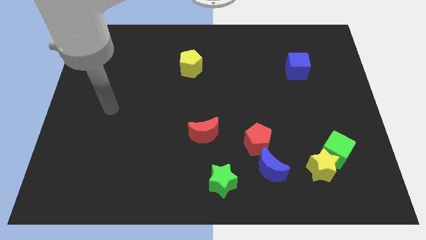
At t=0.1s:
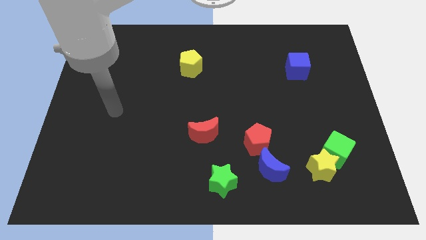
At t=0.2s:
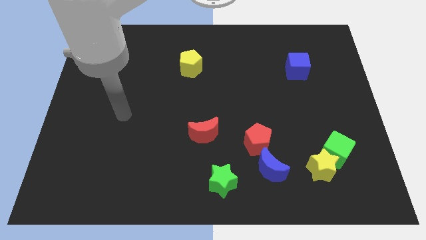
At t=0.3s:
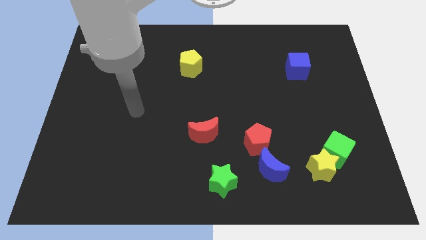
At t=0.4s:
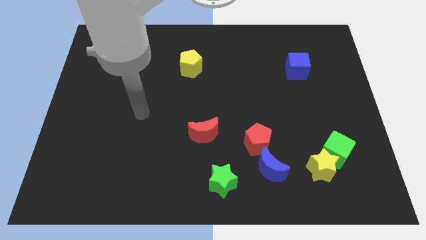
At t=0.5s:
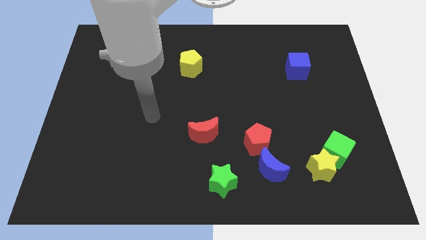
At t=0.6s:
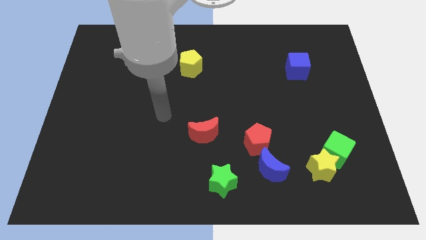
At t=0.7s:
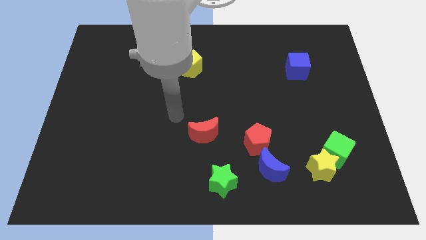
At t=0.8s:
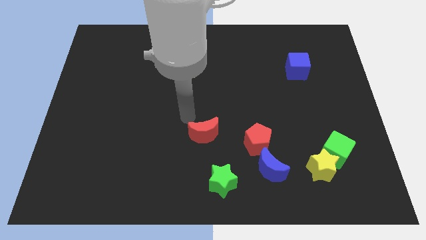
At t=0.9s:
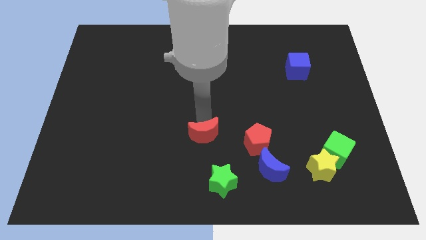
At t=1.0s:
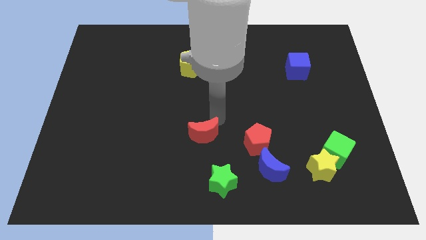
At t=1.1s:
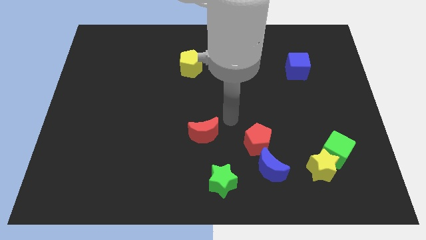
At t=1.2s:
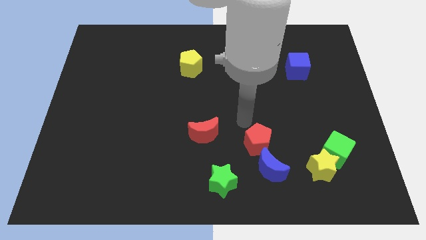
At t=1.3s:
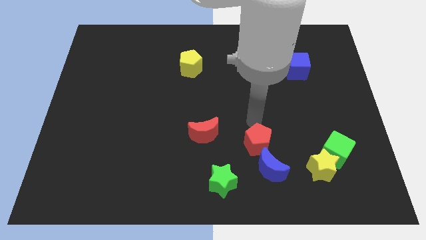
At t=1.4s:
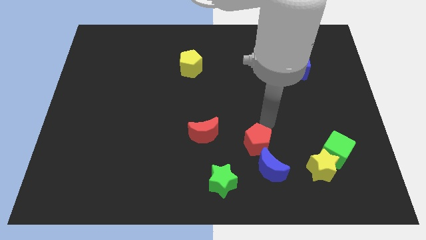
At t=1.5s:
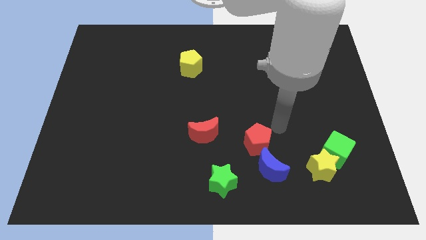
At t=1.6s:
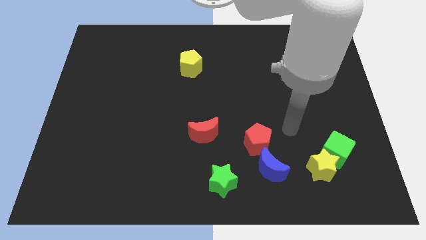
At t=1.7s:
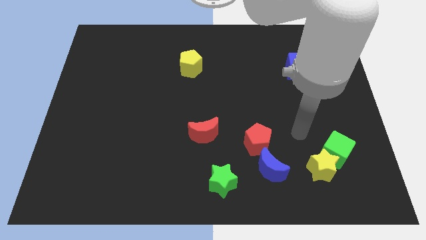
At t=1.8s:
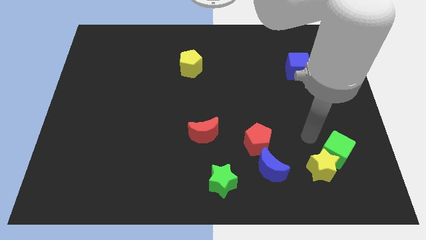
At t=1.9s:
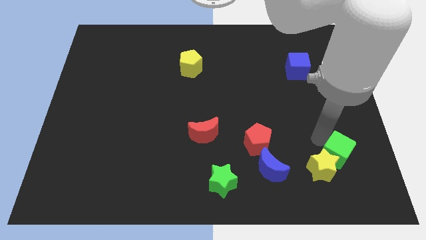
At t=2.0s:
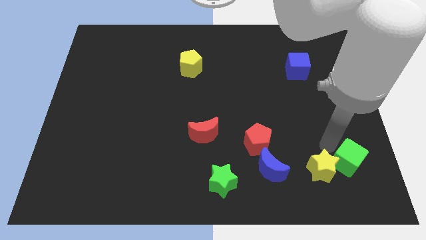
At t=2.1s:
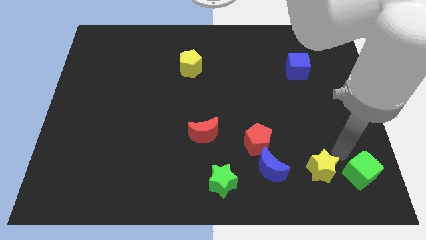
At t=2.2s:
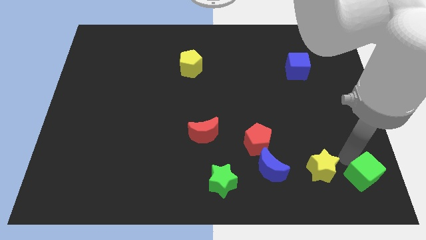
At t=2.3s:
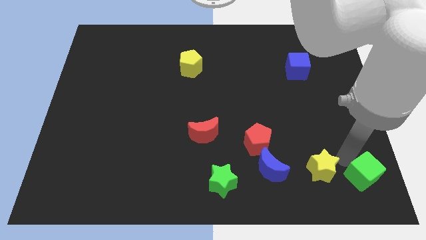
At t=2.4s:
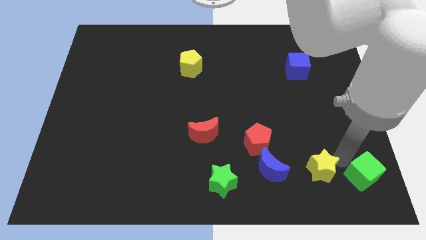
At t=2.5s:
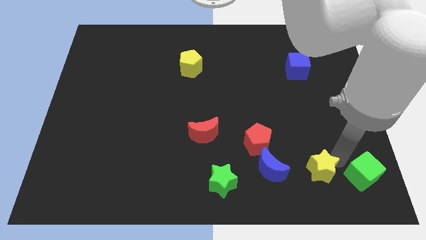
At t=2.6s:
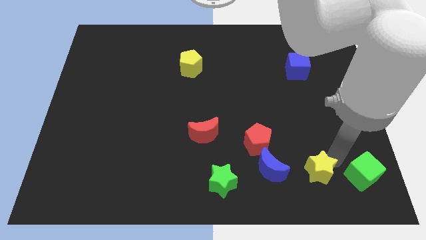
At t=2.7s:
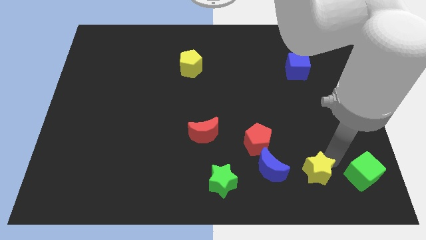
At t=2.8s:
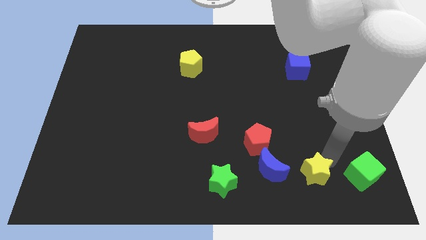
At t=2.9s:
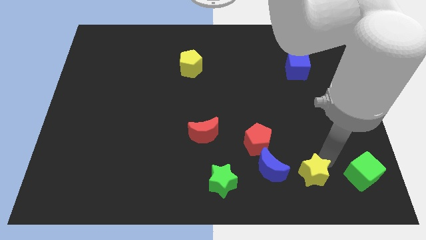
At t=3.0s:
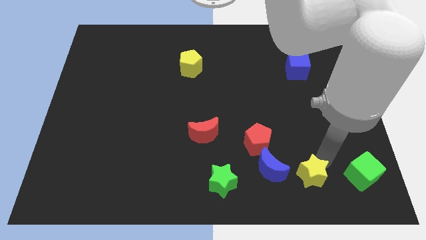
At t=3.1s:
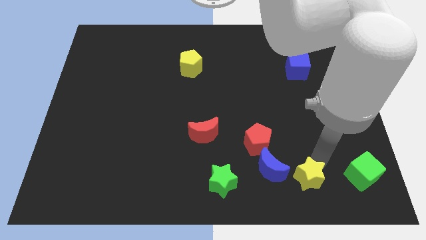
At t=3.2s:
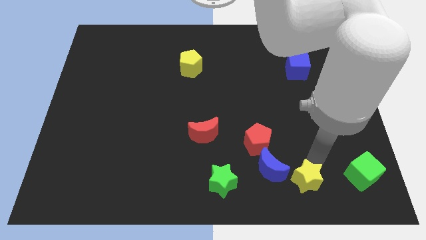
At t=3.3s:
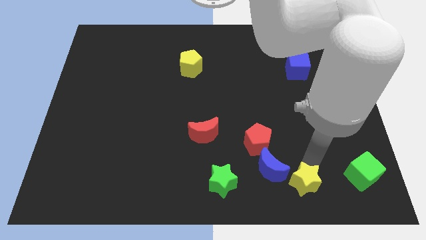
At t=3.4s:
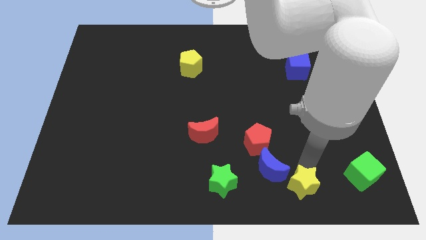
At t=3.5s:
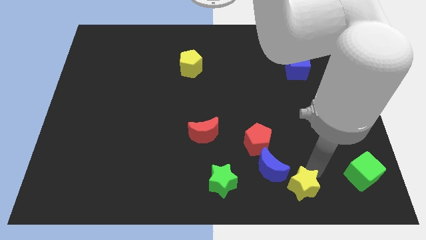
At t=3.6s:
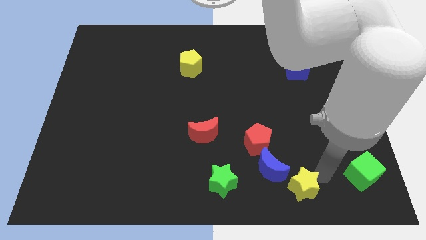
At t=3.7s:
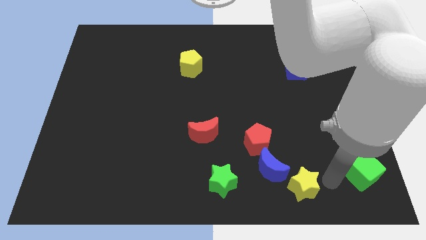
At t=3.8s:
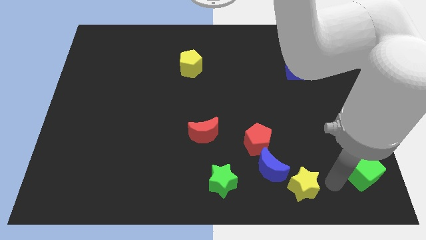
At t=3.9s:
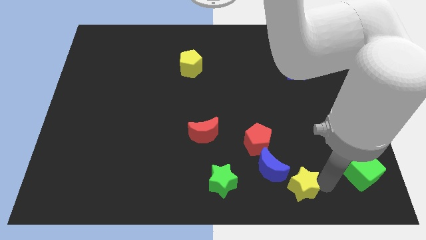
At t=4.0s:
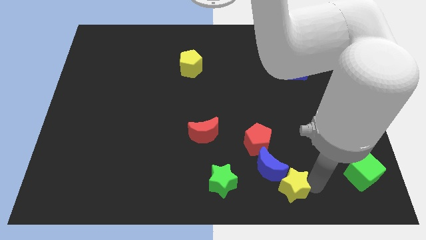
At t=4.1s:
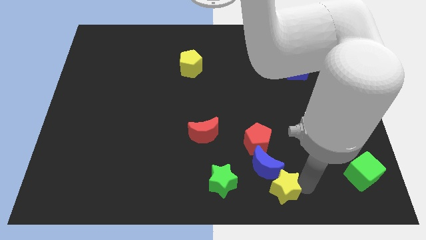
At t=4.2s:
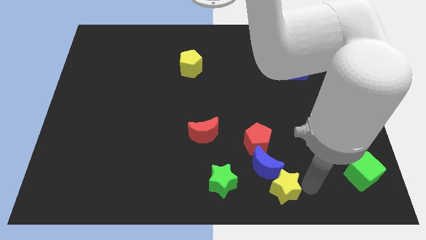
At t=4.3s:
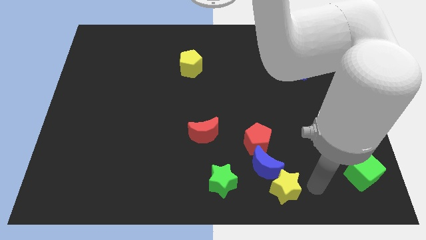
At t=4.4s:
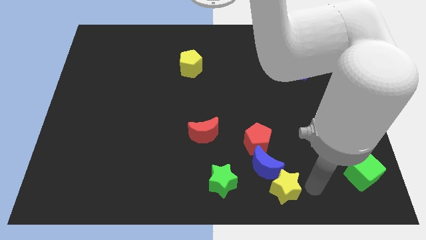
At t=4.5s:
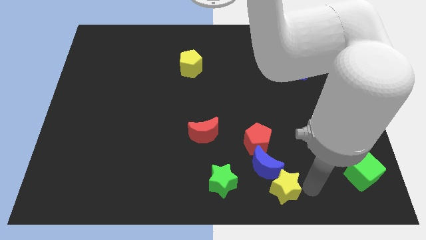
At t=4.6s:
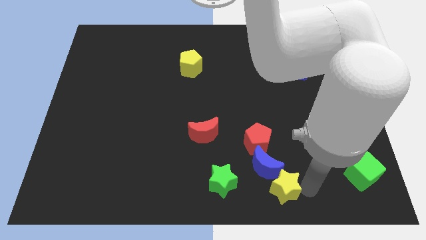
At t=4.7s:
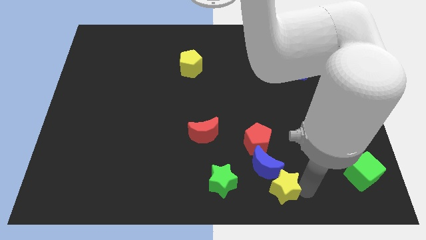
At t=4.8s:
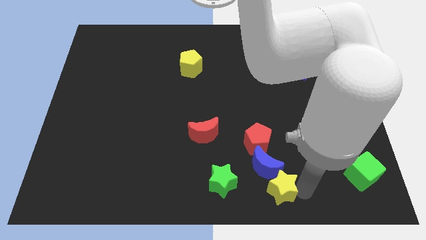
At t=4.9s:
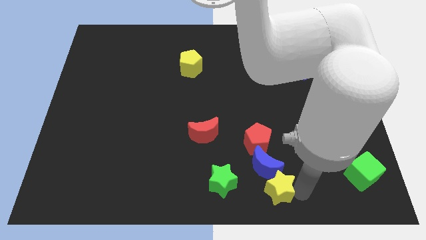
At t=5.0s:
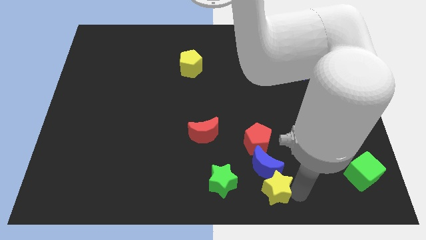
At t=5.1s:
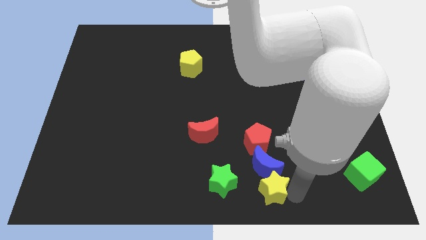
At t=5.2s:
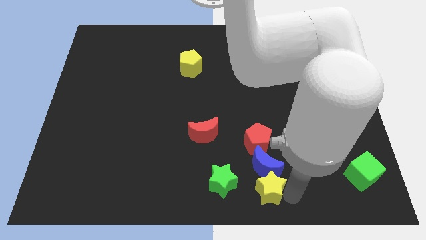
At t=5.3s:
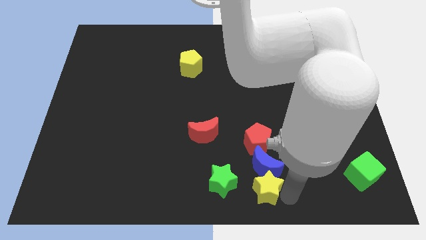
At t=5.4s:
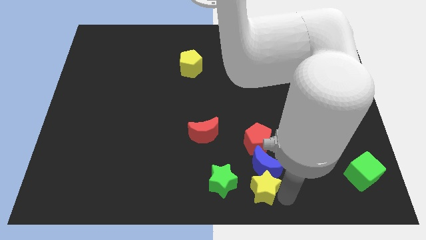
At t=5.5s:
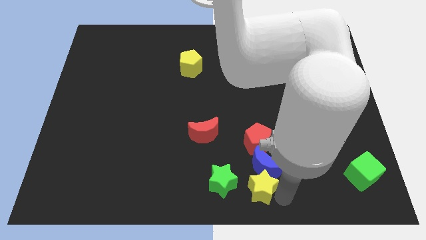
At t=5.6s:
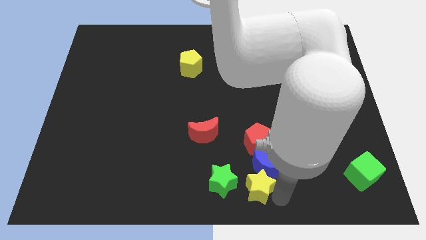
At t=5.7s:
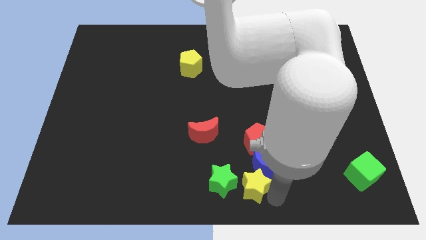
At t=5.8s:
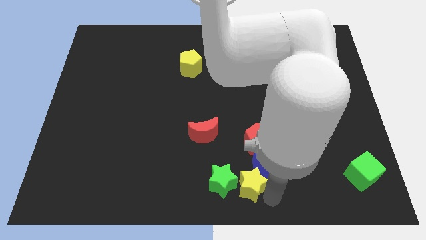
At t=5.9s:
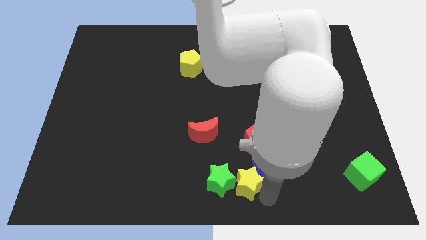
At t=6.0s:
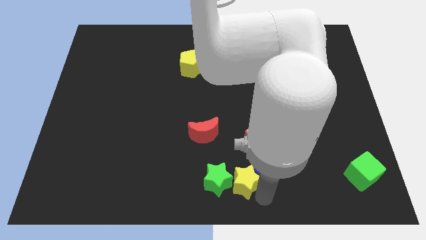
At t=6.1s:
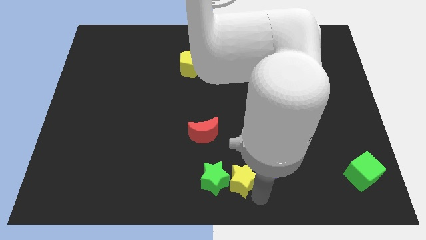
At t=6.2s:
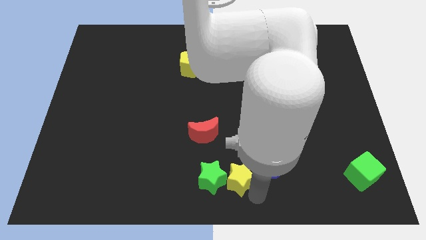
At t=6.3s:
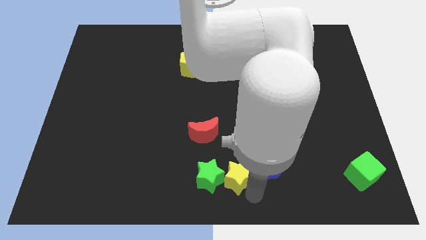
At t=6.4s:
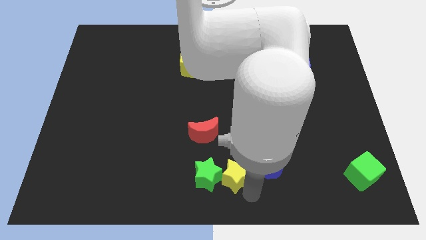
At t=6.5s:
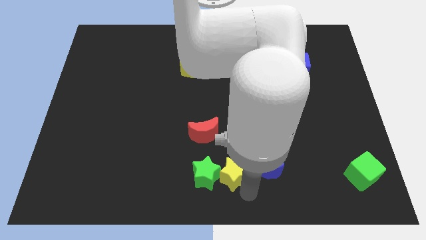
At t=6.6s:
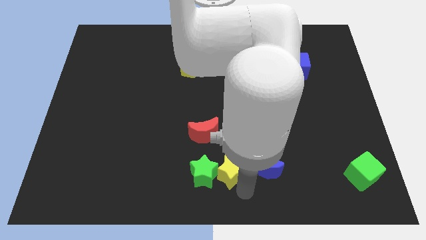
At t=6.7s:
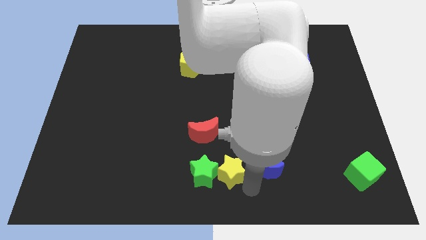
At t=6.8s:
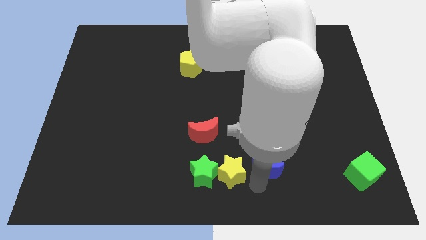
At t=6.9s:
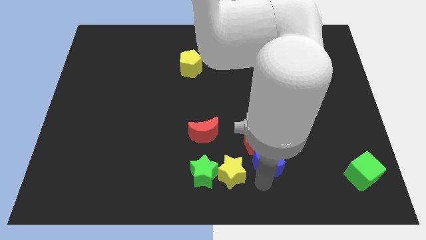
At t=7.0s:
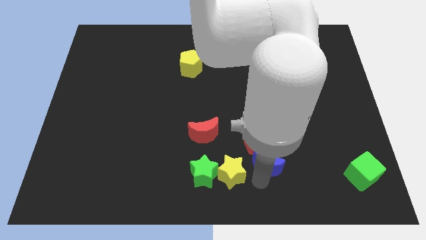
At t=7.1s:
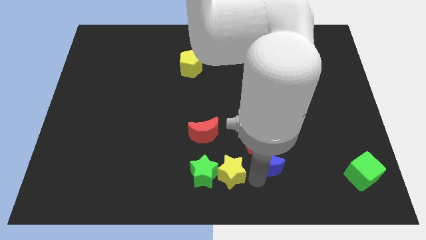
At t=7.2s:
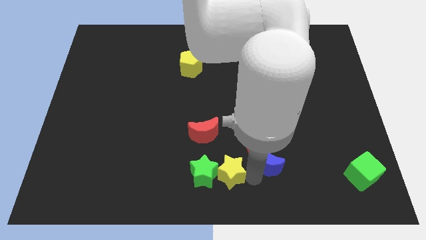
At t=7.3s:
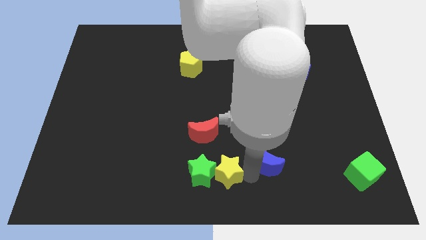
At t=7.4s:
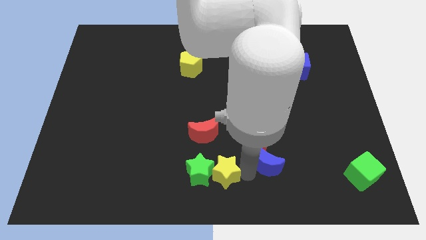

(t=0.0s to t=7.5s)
move the yellow star left

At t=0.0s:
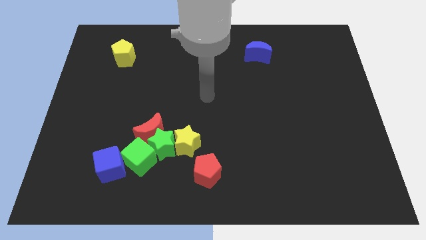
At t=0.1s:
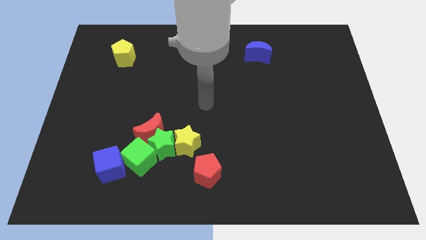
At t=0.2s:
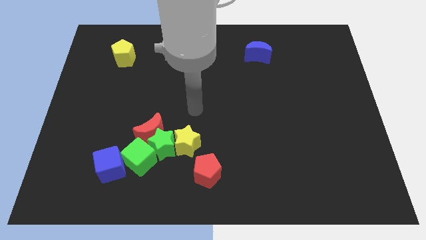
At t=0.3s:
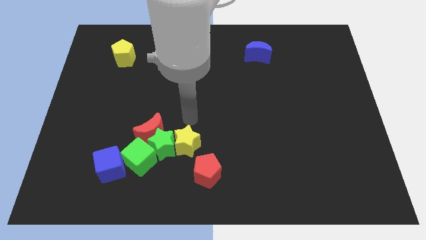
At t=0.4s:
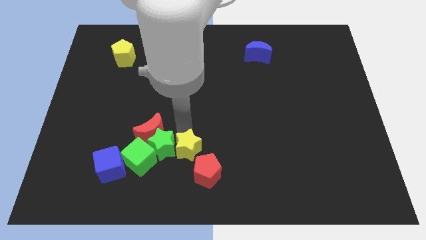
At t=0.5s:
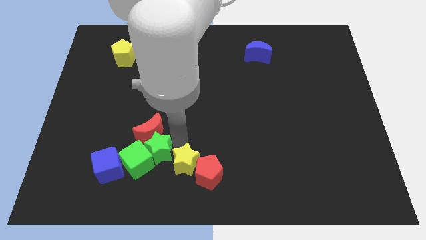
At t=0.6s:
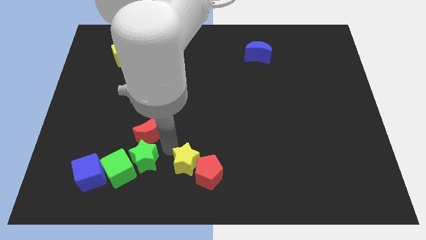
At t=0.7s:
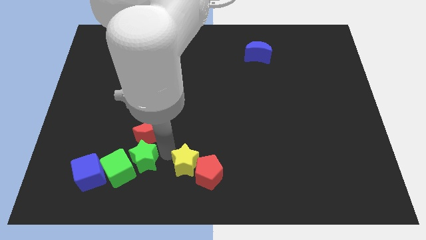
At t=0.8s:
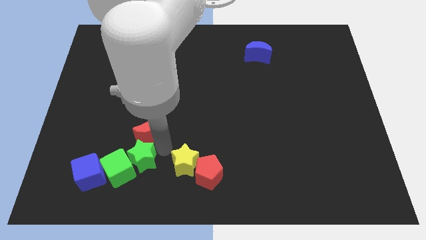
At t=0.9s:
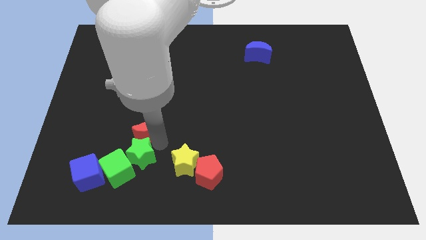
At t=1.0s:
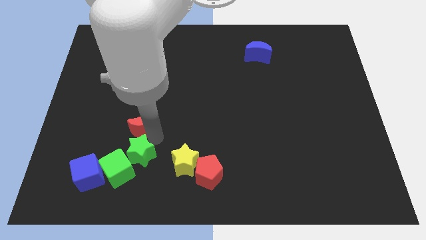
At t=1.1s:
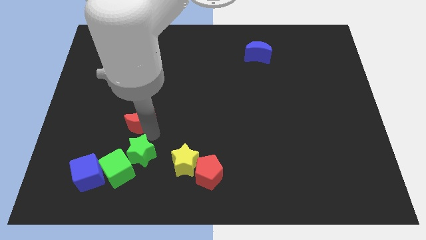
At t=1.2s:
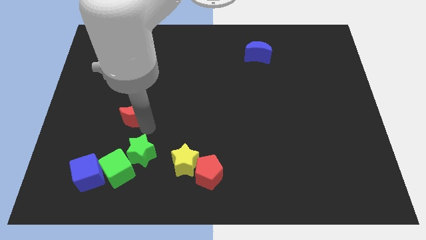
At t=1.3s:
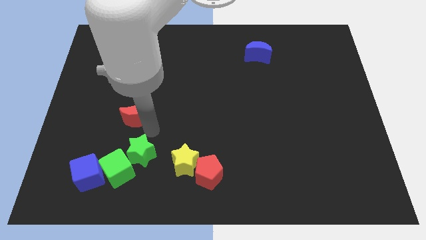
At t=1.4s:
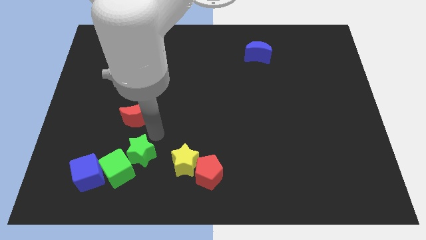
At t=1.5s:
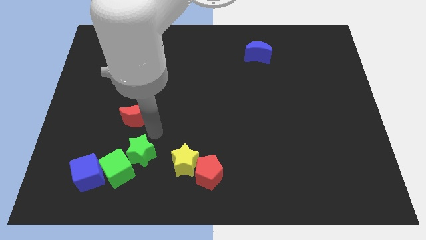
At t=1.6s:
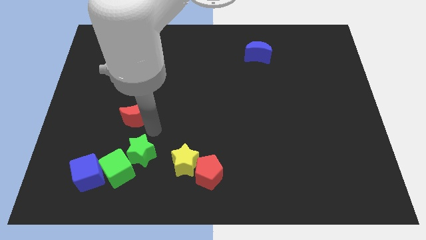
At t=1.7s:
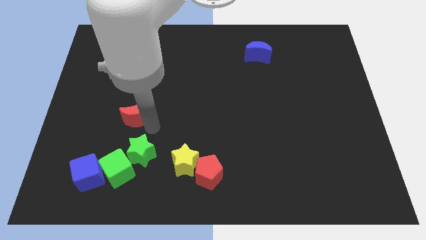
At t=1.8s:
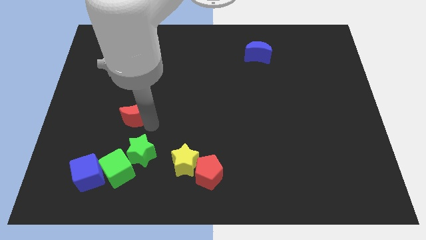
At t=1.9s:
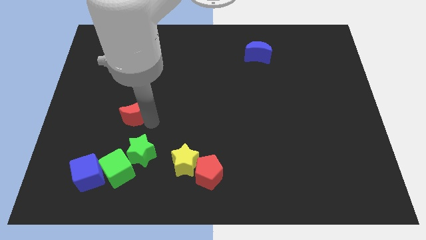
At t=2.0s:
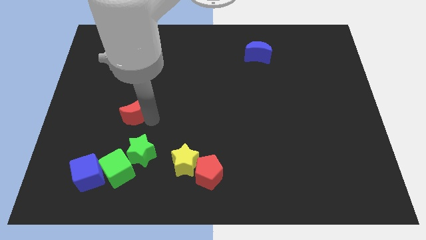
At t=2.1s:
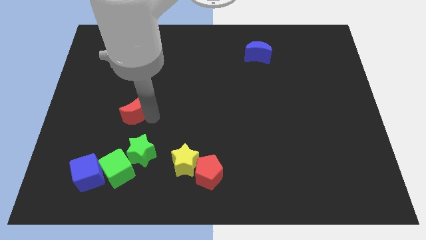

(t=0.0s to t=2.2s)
slightly slide the red moon upwards and to the left diagonally
